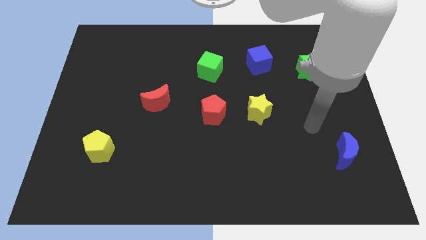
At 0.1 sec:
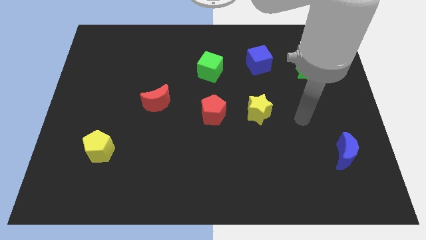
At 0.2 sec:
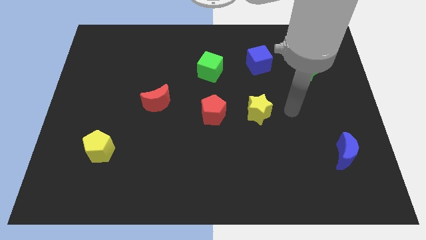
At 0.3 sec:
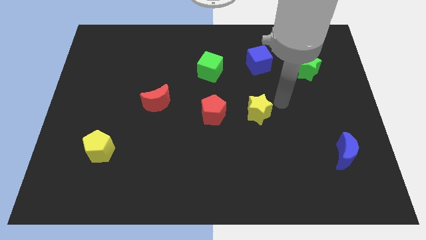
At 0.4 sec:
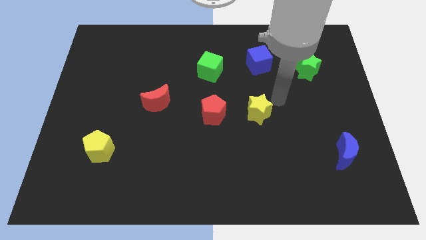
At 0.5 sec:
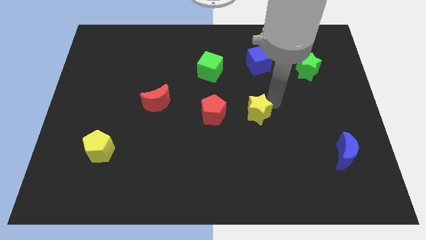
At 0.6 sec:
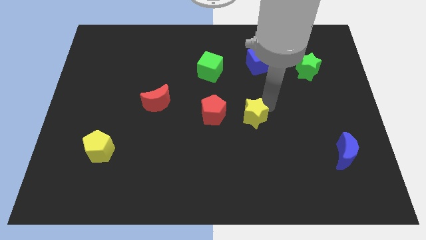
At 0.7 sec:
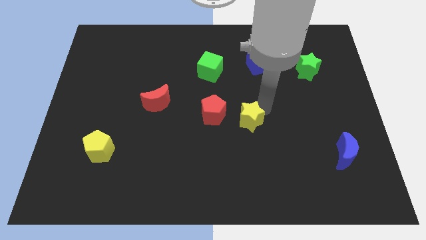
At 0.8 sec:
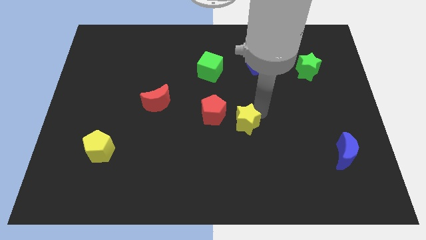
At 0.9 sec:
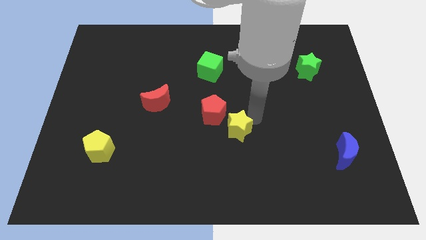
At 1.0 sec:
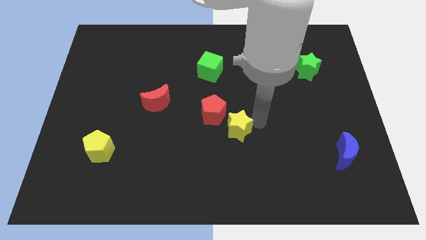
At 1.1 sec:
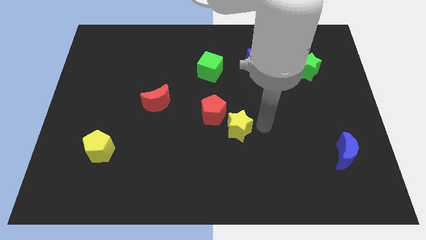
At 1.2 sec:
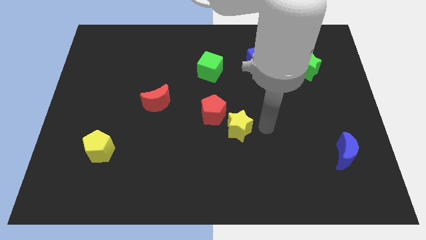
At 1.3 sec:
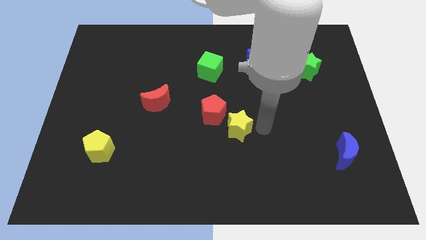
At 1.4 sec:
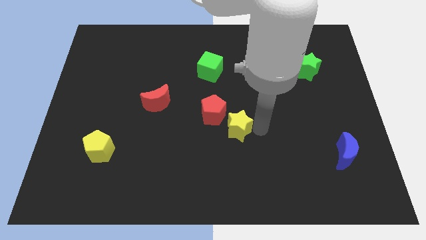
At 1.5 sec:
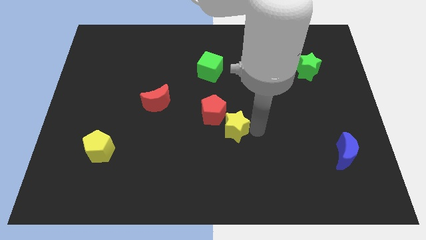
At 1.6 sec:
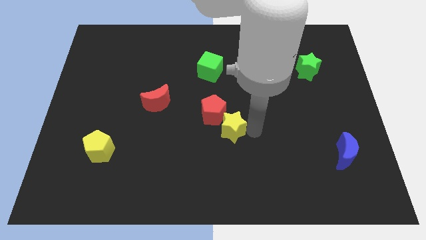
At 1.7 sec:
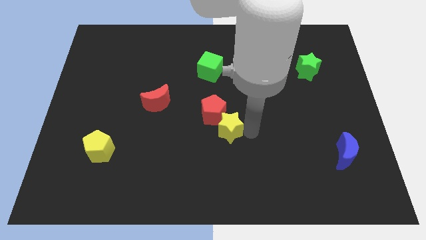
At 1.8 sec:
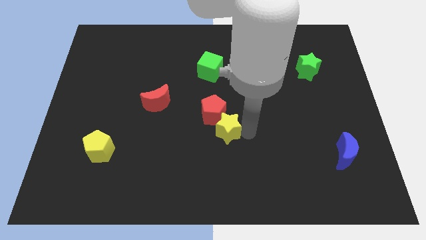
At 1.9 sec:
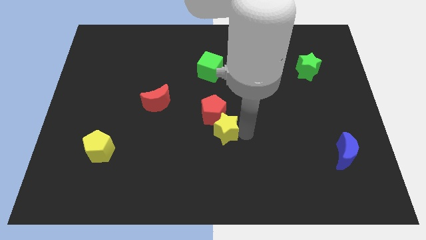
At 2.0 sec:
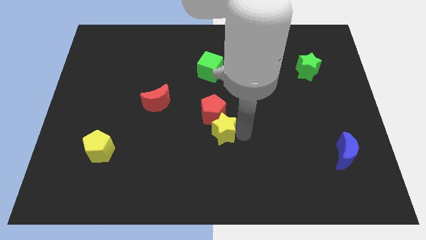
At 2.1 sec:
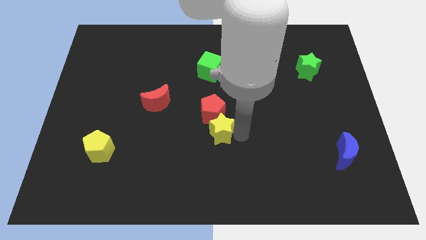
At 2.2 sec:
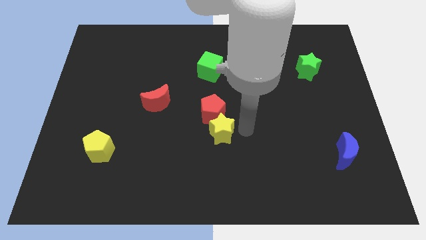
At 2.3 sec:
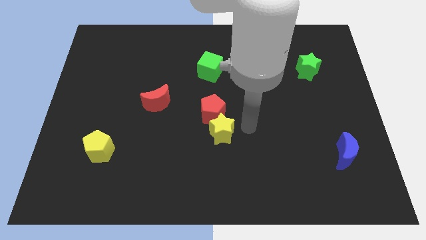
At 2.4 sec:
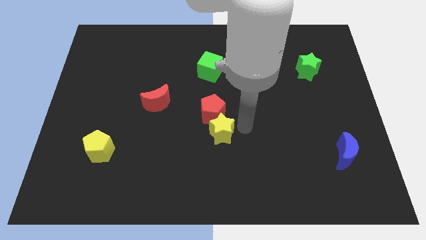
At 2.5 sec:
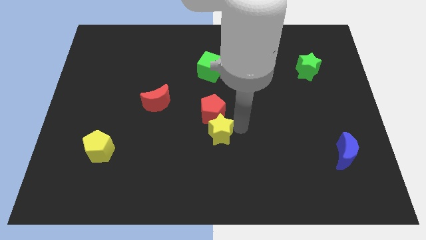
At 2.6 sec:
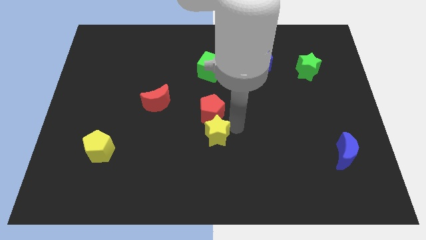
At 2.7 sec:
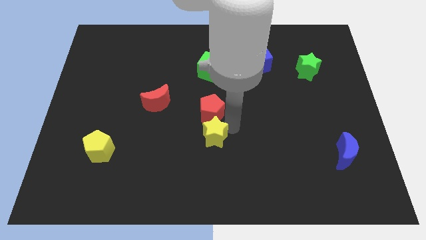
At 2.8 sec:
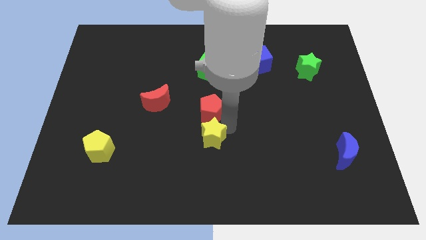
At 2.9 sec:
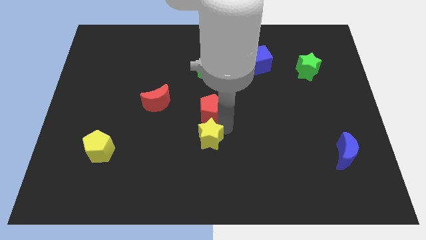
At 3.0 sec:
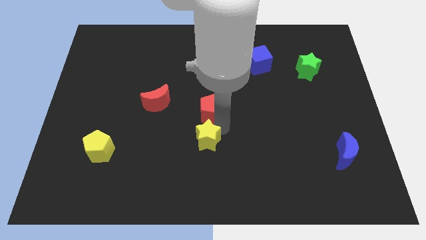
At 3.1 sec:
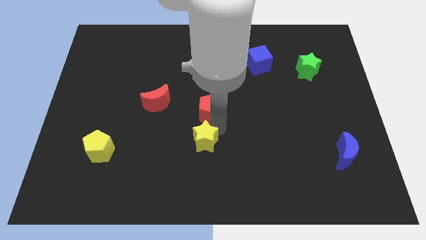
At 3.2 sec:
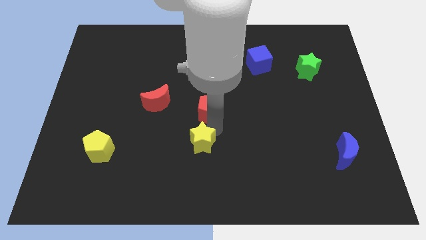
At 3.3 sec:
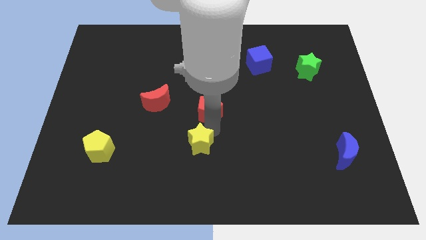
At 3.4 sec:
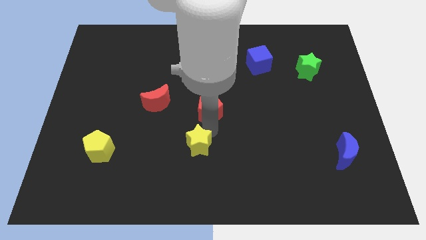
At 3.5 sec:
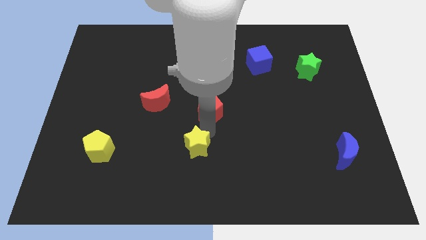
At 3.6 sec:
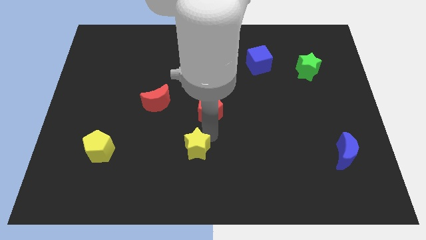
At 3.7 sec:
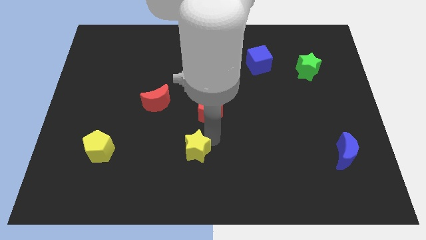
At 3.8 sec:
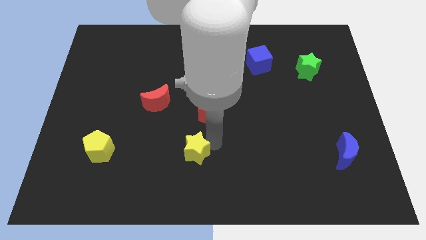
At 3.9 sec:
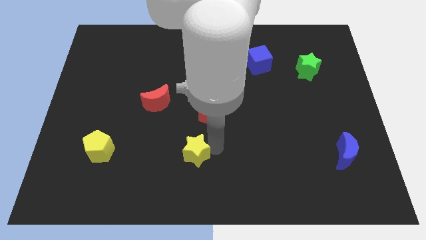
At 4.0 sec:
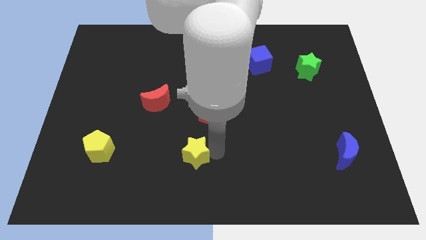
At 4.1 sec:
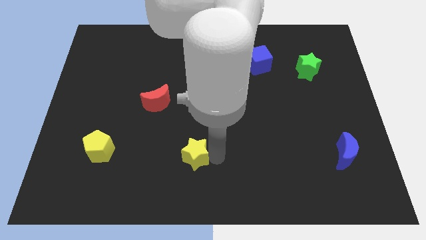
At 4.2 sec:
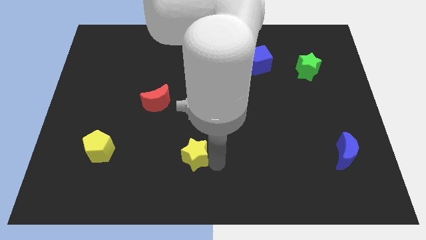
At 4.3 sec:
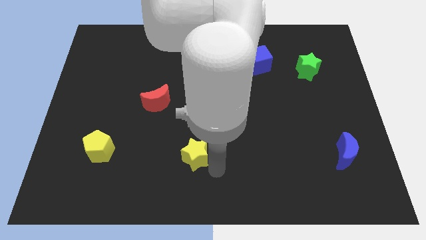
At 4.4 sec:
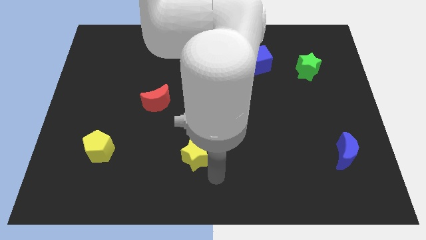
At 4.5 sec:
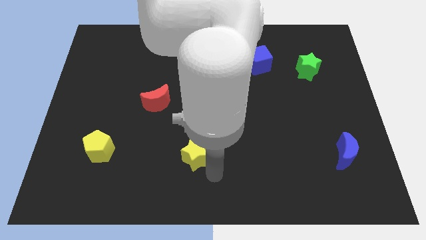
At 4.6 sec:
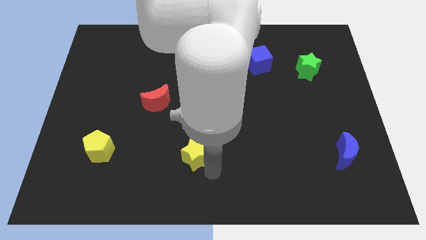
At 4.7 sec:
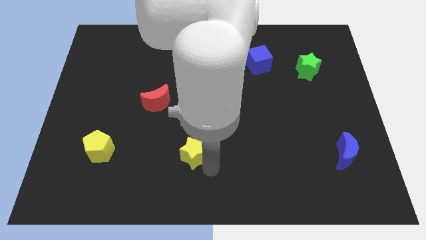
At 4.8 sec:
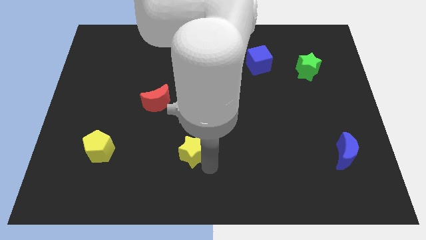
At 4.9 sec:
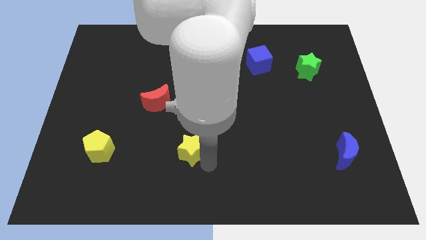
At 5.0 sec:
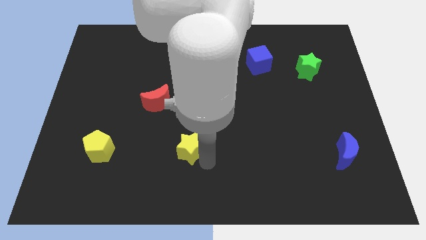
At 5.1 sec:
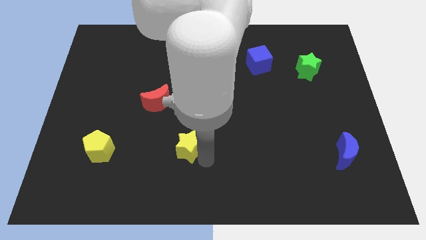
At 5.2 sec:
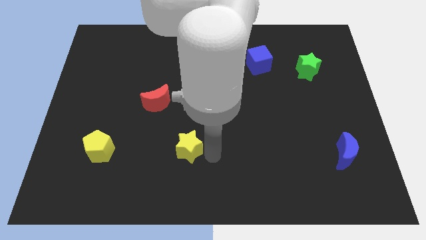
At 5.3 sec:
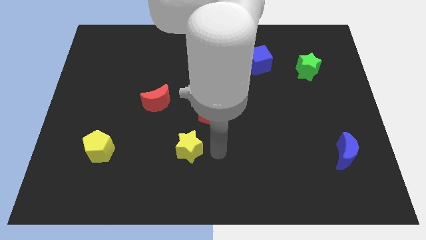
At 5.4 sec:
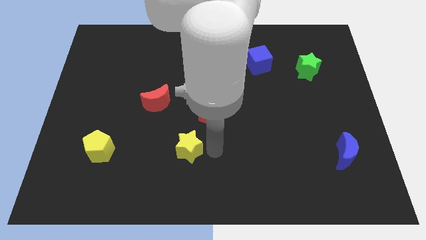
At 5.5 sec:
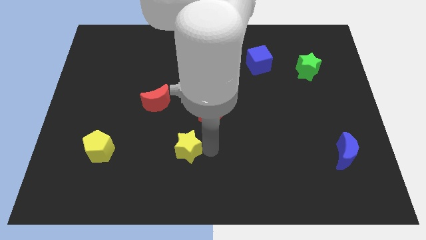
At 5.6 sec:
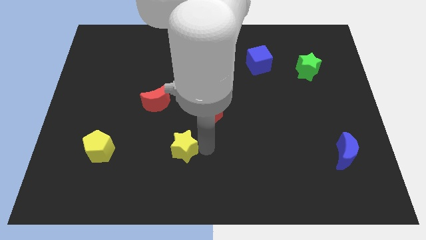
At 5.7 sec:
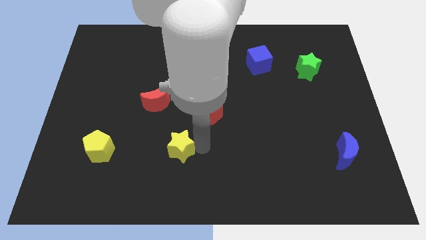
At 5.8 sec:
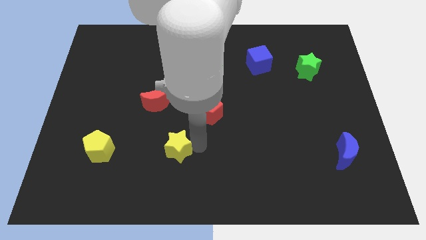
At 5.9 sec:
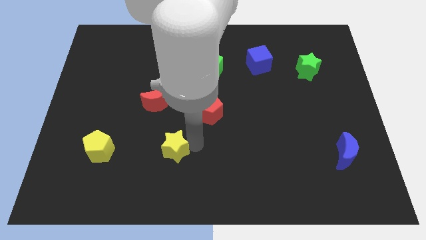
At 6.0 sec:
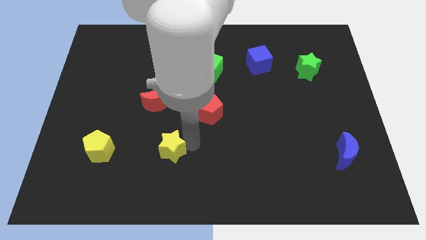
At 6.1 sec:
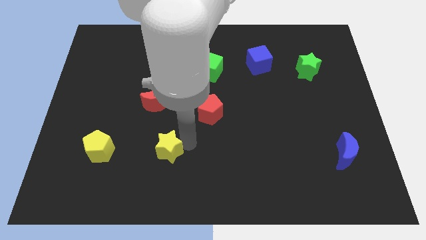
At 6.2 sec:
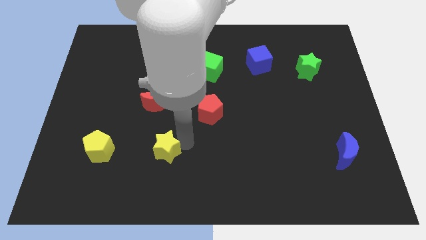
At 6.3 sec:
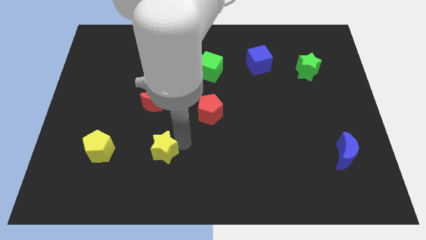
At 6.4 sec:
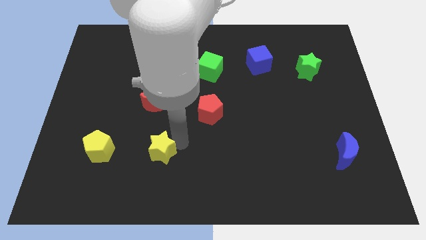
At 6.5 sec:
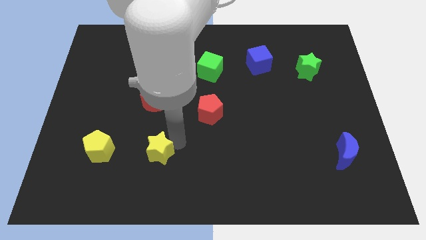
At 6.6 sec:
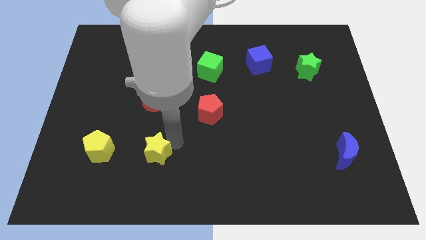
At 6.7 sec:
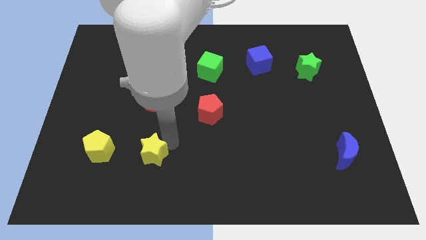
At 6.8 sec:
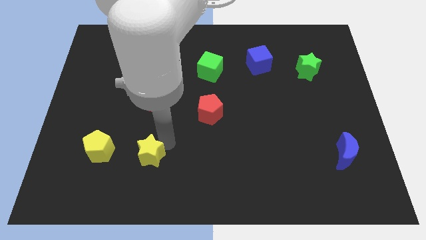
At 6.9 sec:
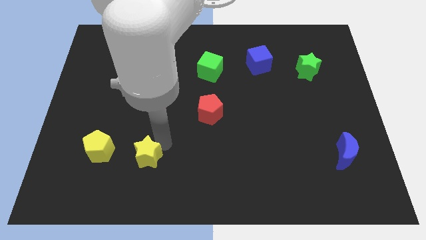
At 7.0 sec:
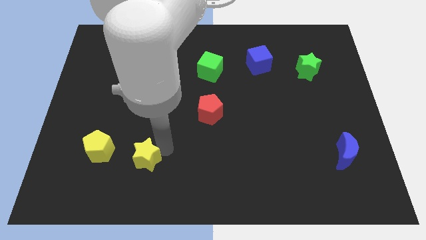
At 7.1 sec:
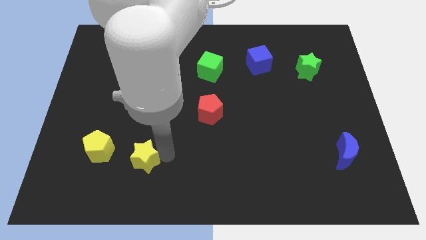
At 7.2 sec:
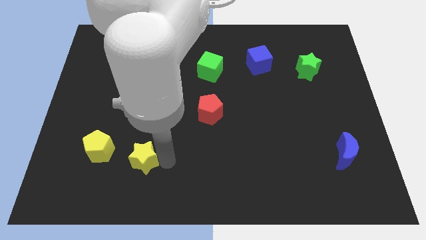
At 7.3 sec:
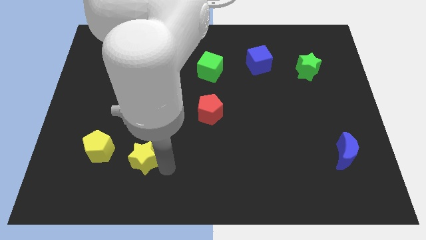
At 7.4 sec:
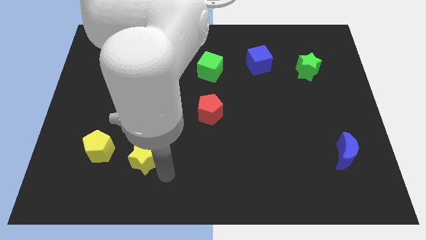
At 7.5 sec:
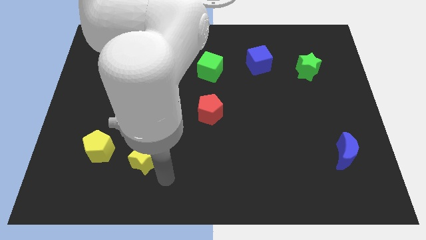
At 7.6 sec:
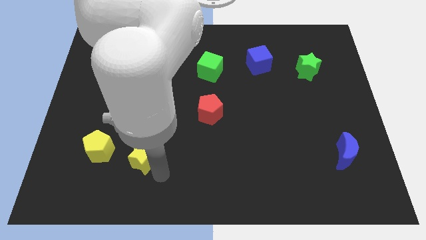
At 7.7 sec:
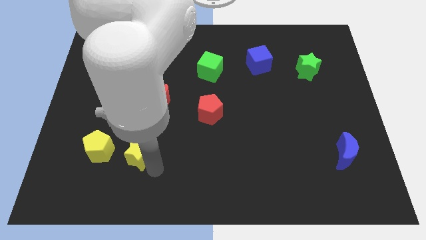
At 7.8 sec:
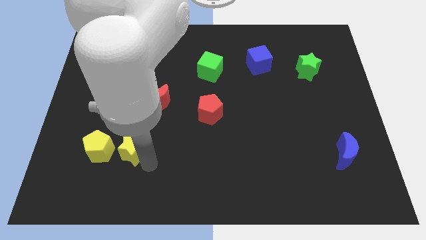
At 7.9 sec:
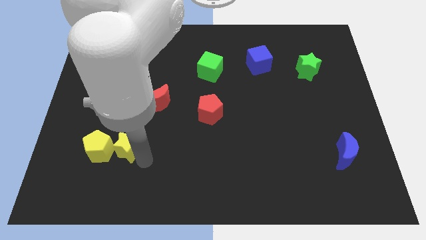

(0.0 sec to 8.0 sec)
slide the yellow star to the yellow pentagon
